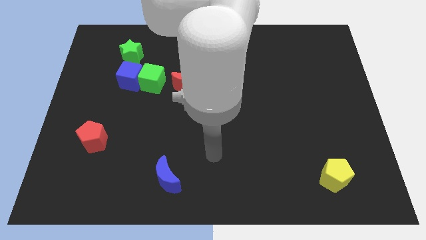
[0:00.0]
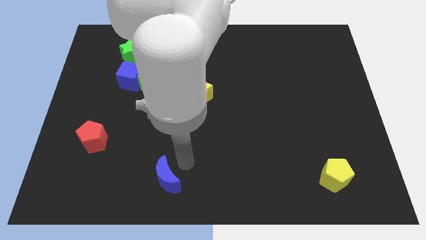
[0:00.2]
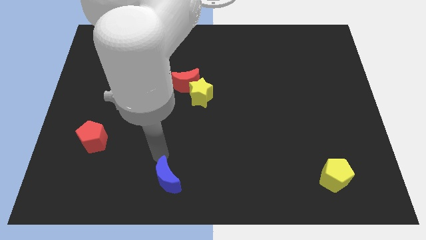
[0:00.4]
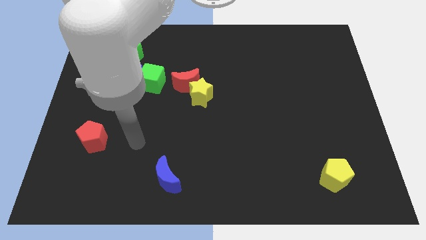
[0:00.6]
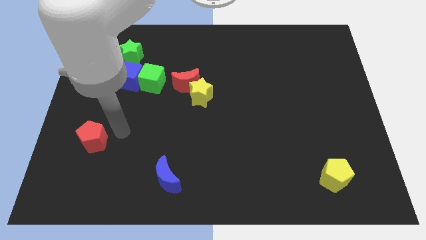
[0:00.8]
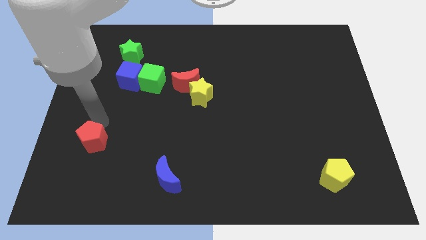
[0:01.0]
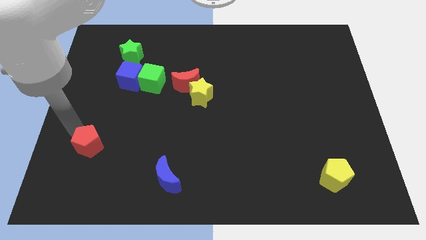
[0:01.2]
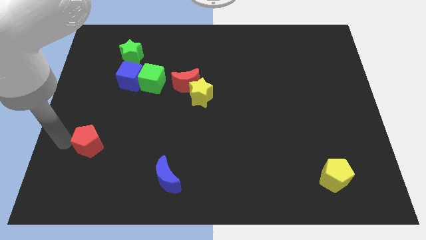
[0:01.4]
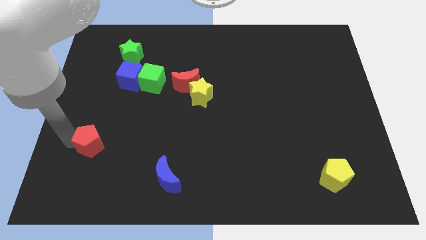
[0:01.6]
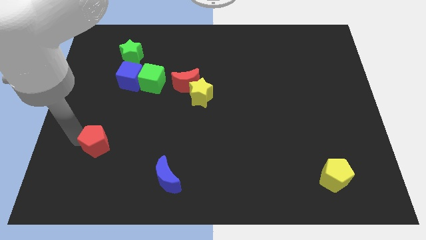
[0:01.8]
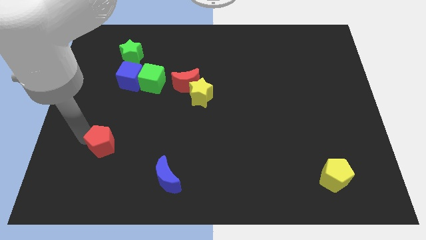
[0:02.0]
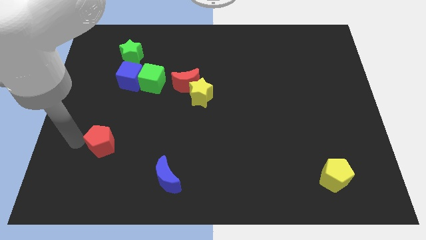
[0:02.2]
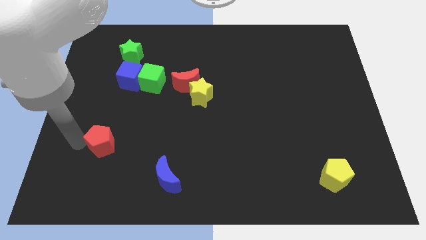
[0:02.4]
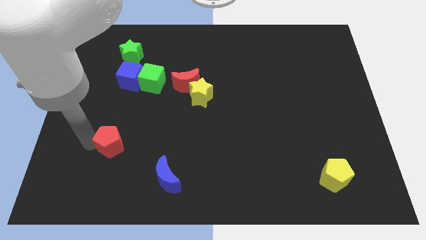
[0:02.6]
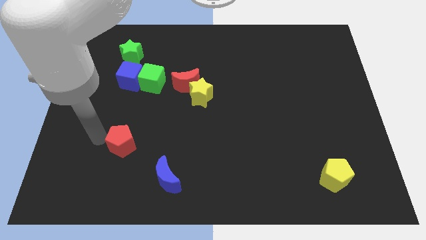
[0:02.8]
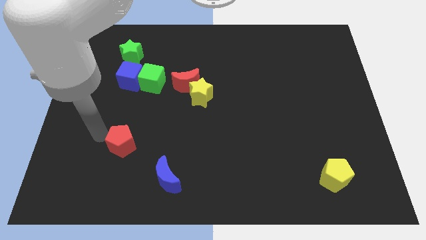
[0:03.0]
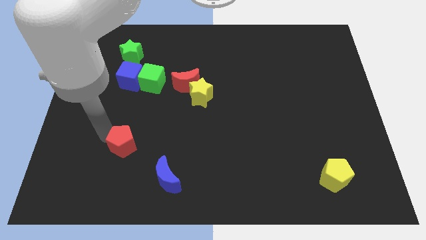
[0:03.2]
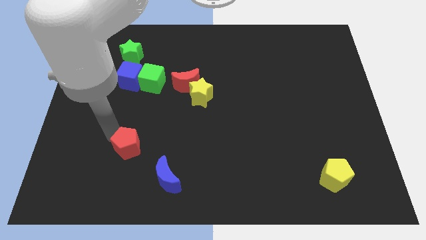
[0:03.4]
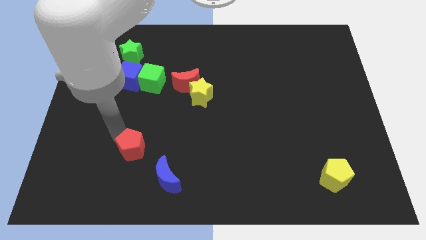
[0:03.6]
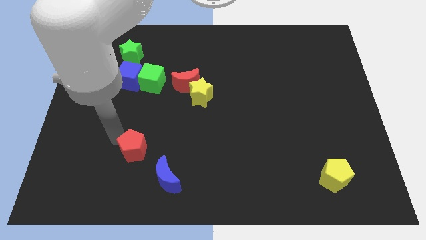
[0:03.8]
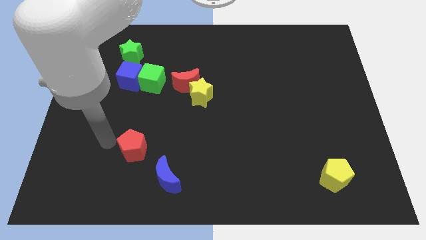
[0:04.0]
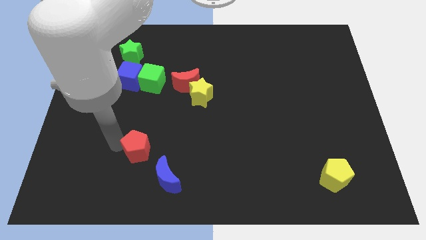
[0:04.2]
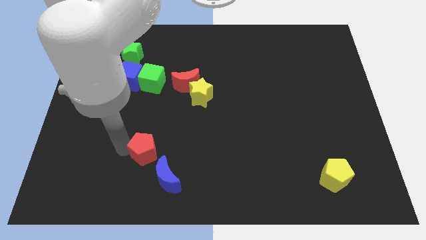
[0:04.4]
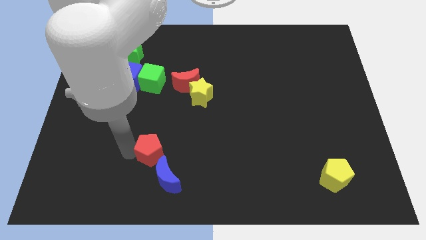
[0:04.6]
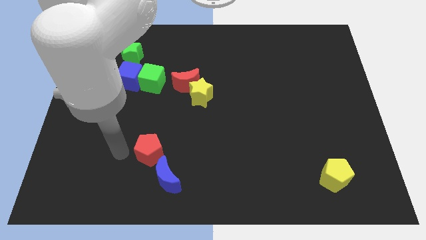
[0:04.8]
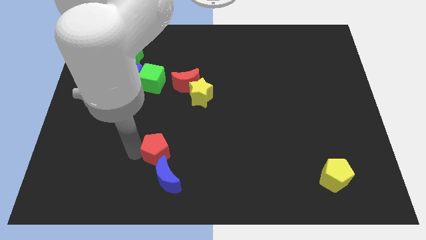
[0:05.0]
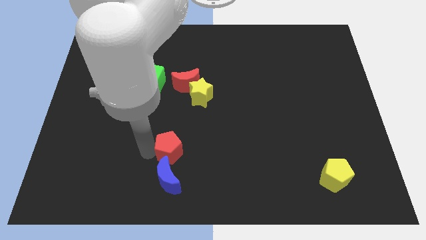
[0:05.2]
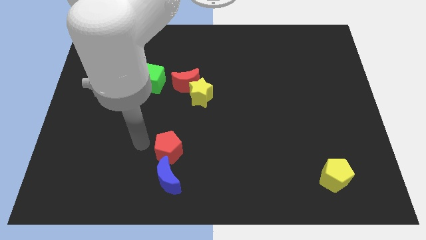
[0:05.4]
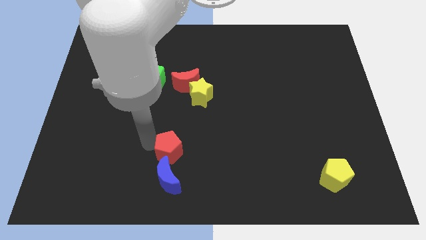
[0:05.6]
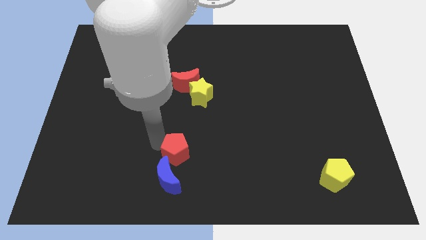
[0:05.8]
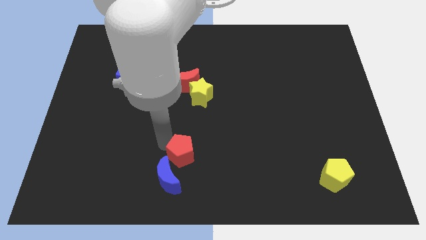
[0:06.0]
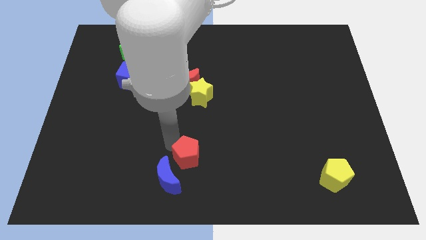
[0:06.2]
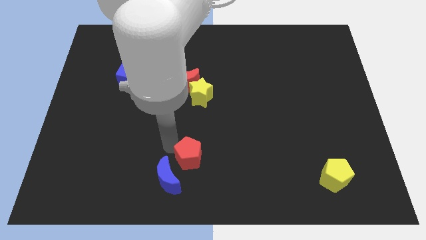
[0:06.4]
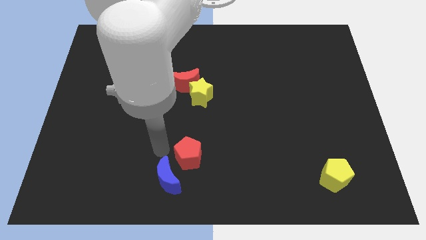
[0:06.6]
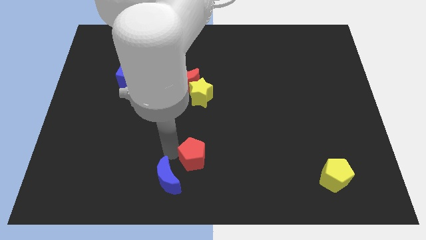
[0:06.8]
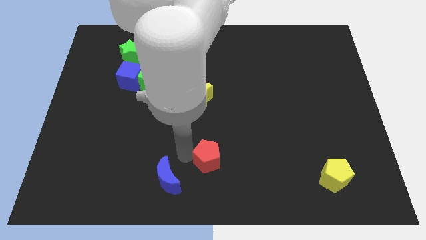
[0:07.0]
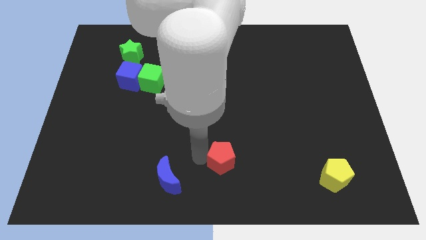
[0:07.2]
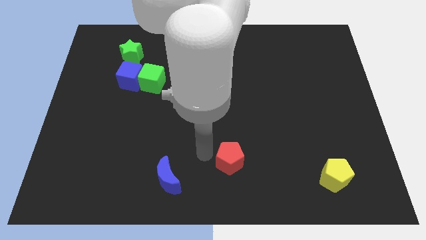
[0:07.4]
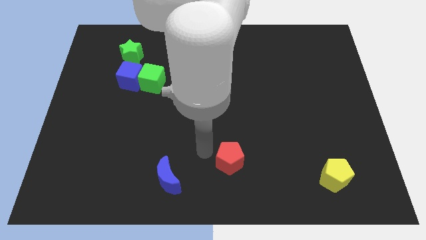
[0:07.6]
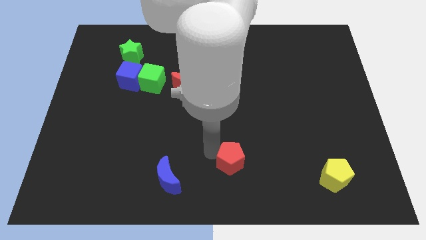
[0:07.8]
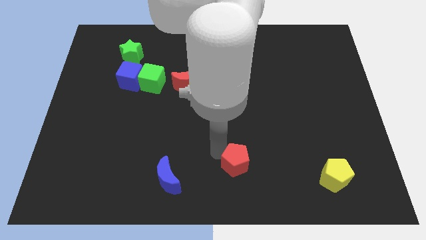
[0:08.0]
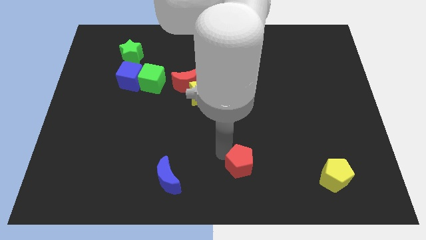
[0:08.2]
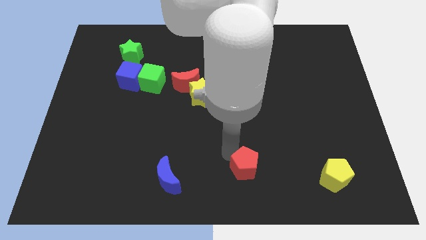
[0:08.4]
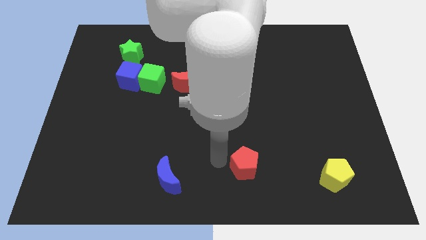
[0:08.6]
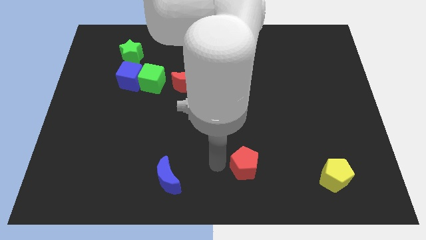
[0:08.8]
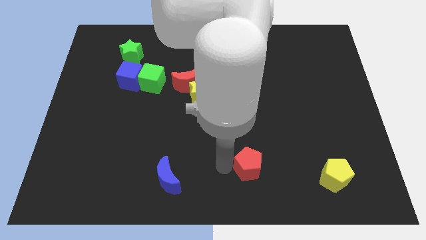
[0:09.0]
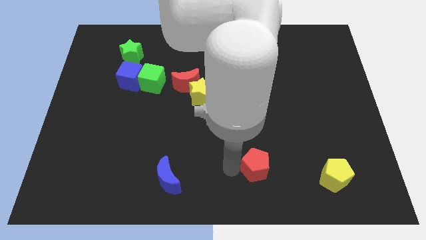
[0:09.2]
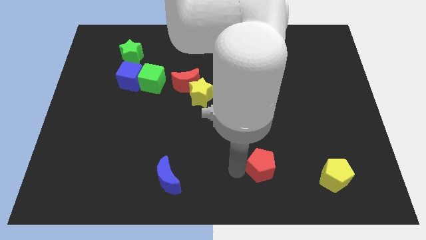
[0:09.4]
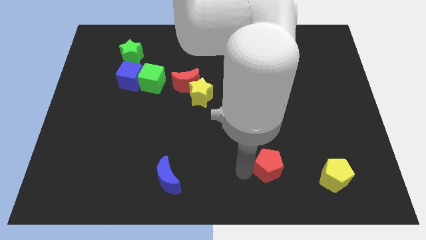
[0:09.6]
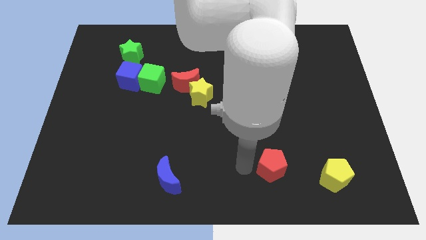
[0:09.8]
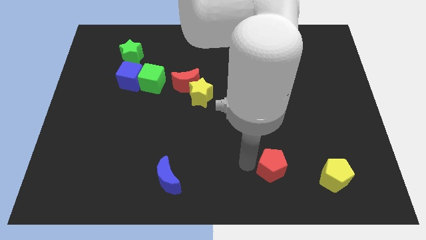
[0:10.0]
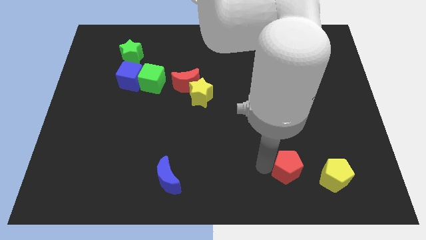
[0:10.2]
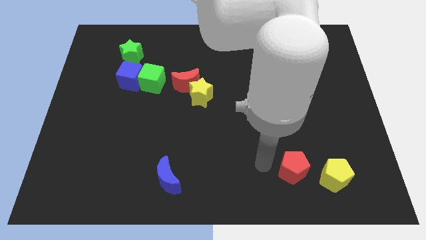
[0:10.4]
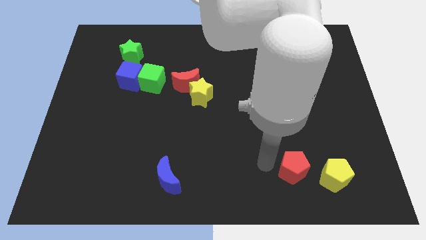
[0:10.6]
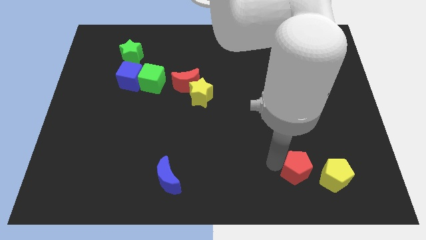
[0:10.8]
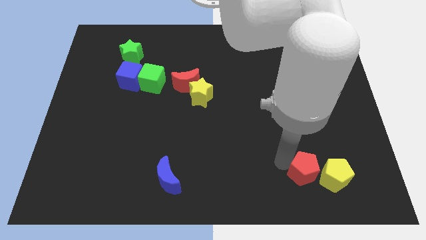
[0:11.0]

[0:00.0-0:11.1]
put the red pentagon towards the yellow pentagon

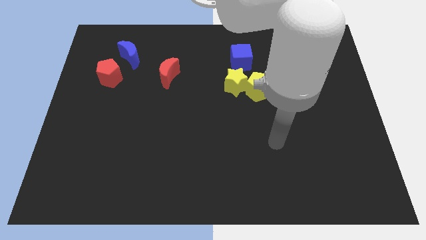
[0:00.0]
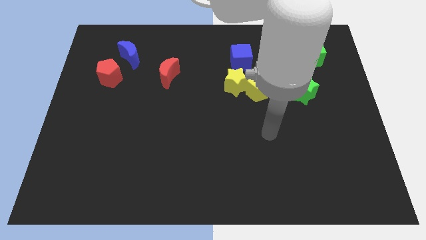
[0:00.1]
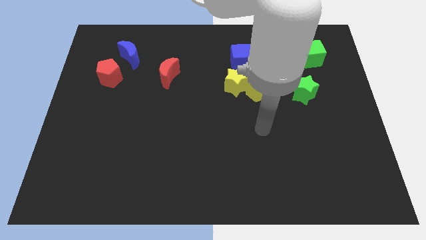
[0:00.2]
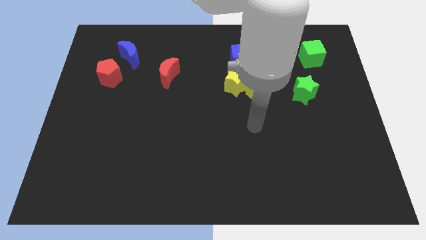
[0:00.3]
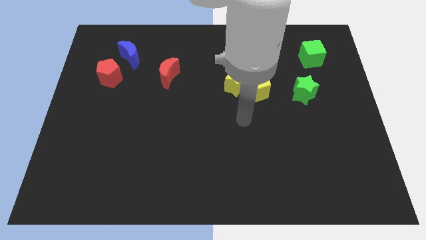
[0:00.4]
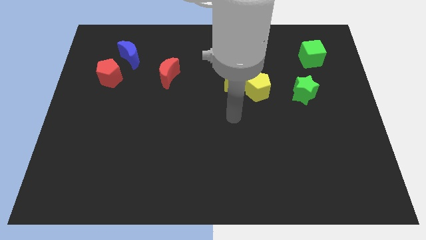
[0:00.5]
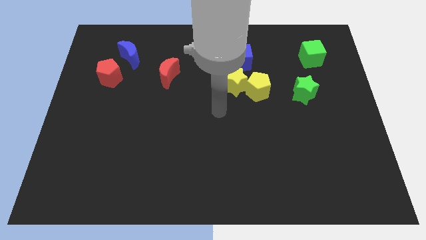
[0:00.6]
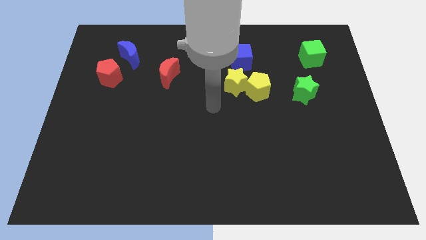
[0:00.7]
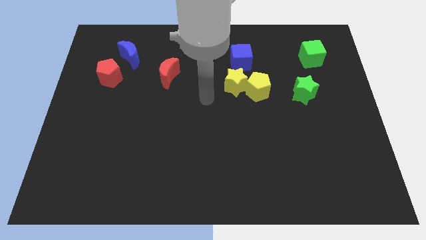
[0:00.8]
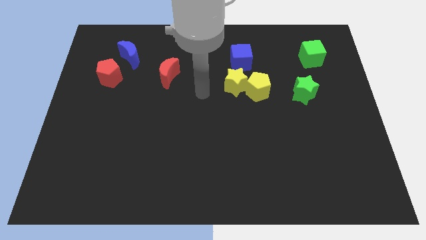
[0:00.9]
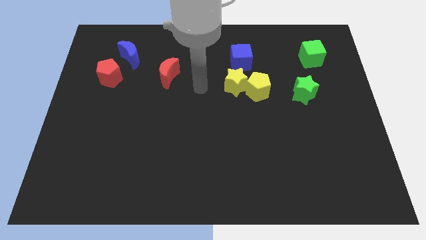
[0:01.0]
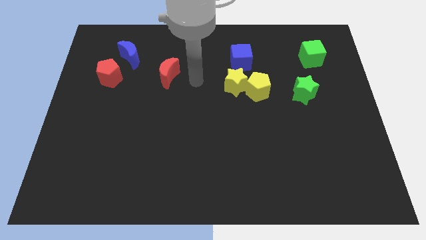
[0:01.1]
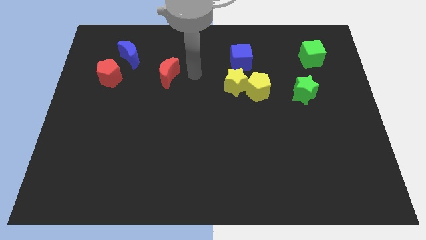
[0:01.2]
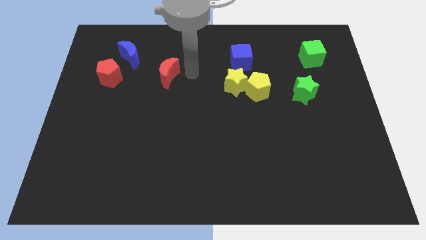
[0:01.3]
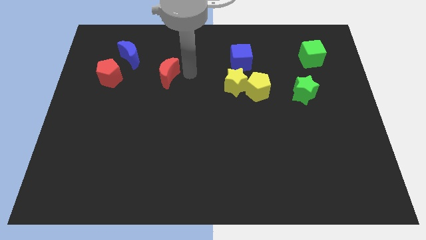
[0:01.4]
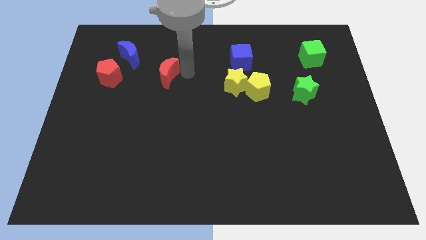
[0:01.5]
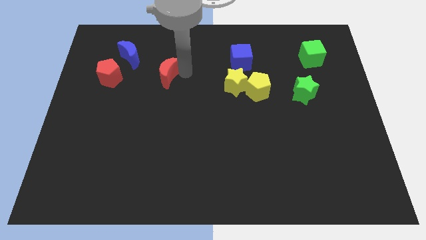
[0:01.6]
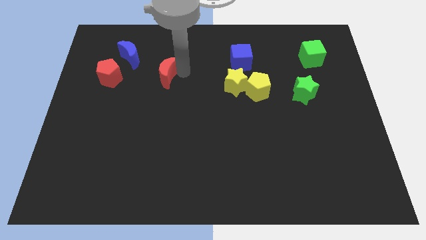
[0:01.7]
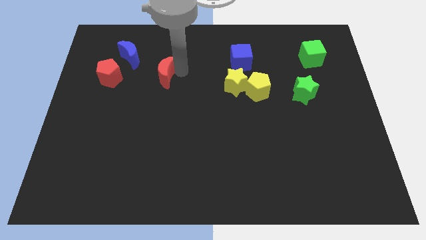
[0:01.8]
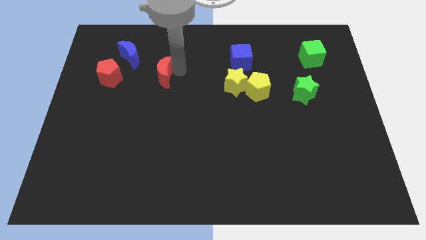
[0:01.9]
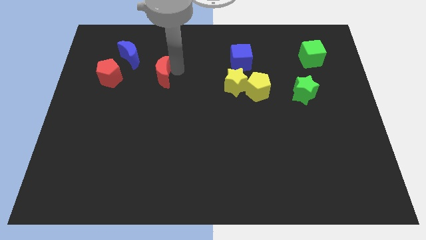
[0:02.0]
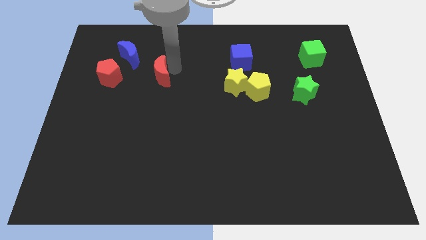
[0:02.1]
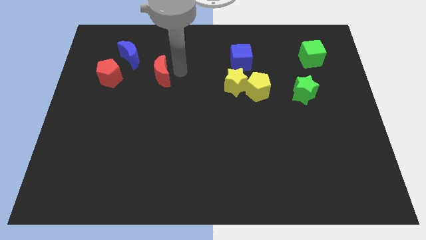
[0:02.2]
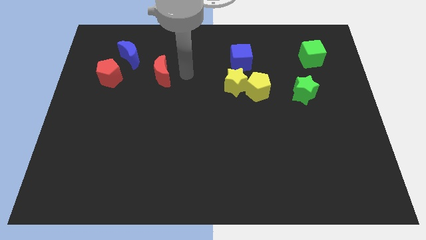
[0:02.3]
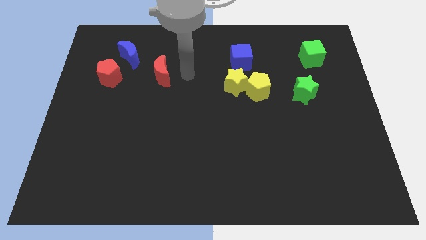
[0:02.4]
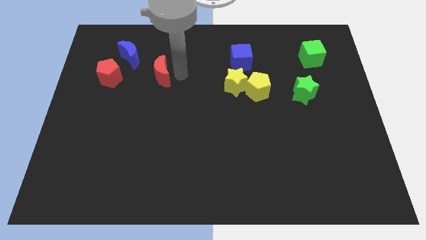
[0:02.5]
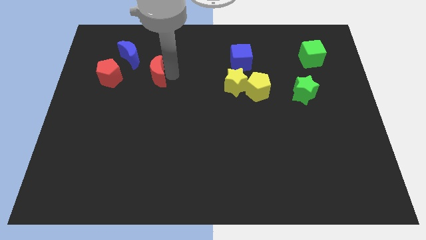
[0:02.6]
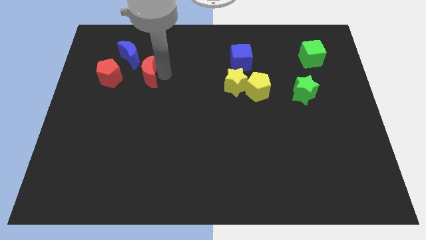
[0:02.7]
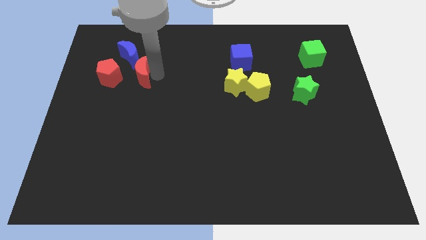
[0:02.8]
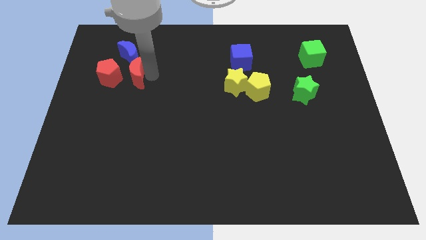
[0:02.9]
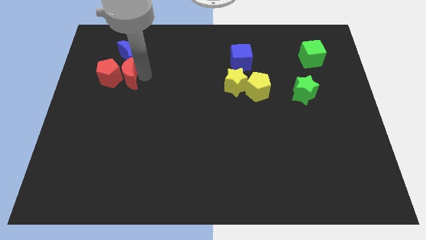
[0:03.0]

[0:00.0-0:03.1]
slide the red moon towards the red pentagon
